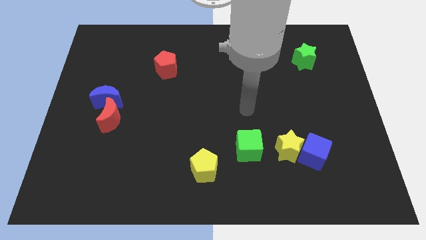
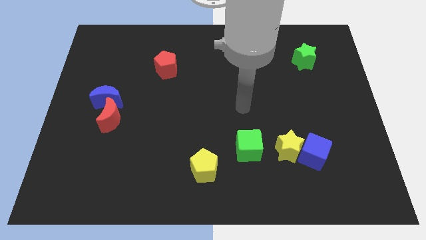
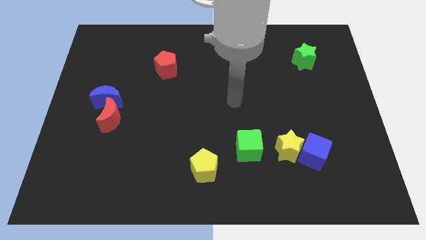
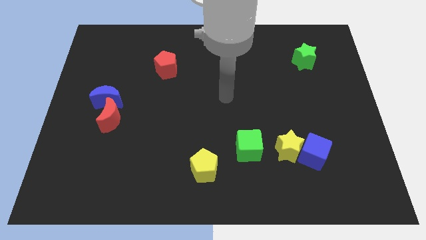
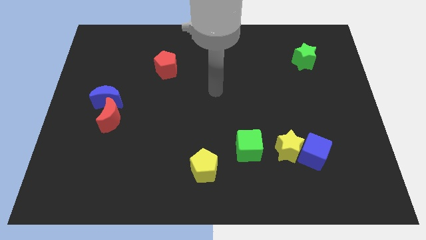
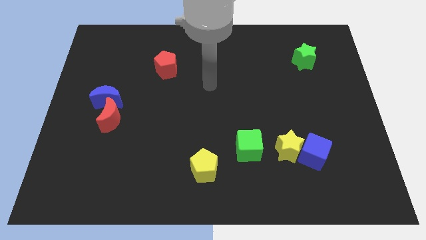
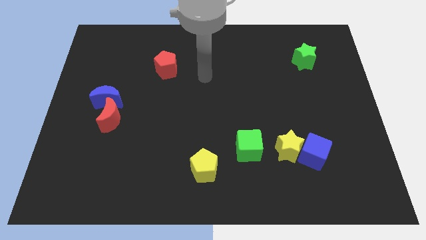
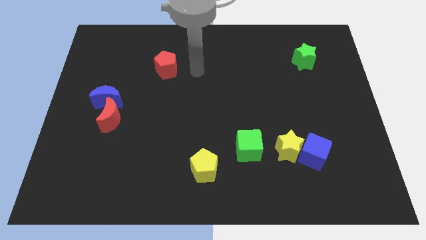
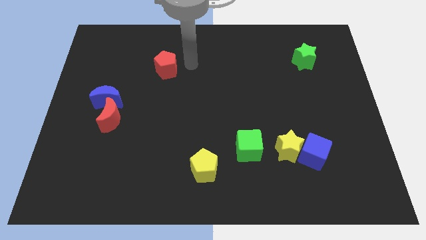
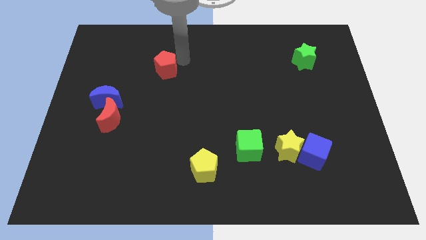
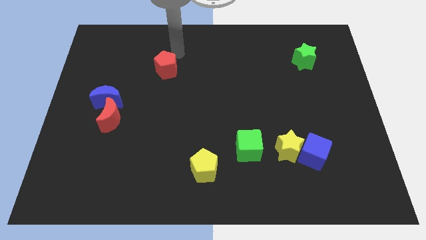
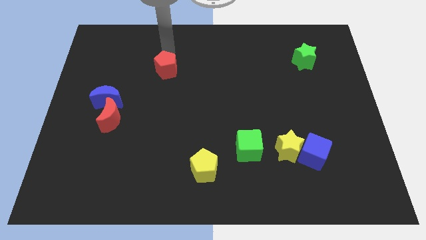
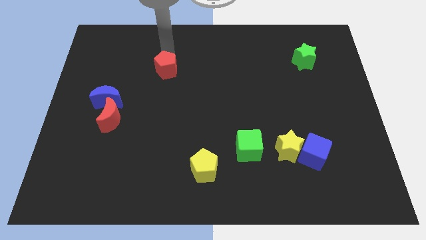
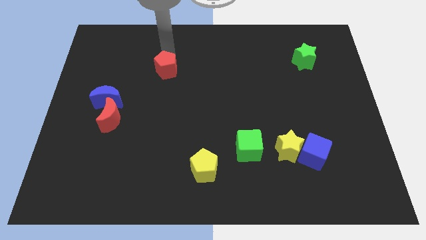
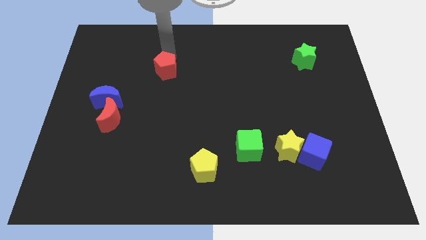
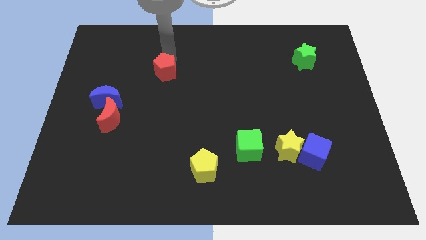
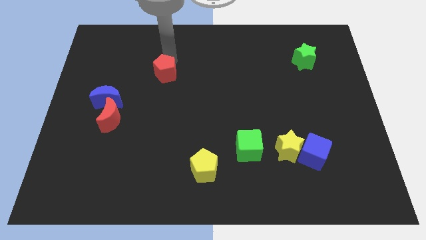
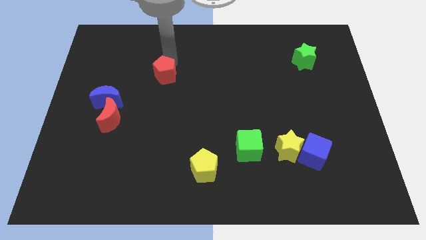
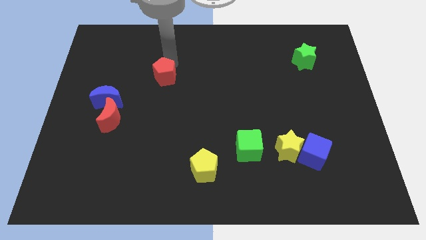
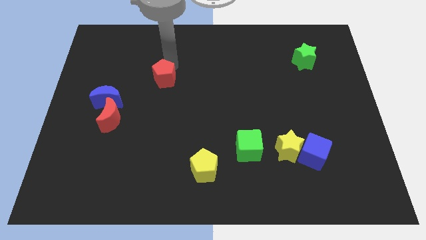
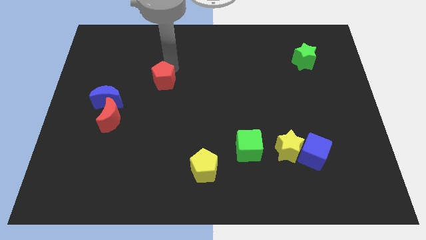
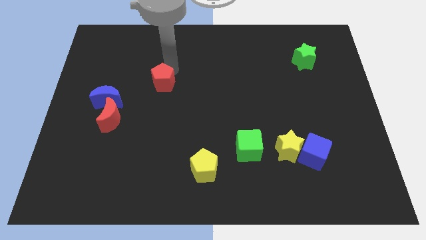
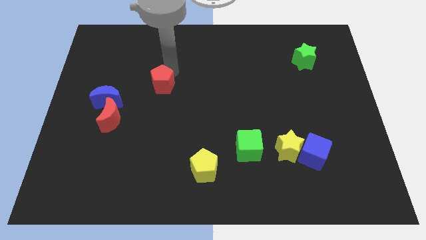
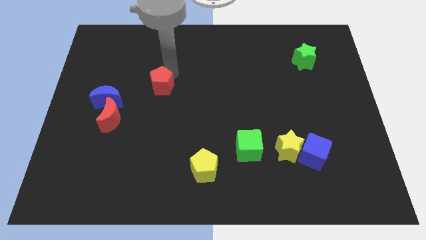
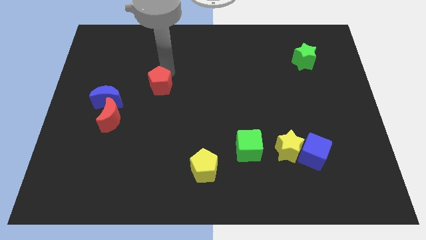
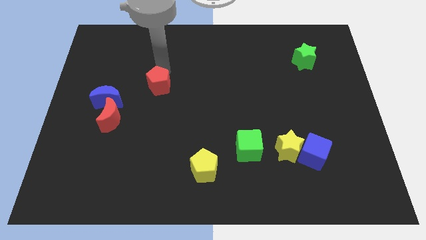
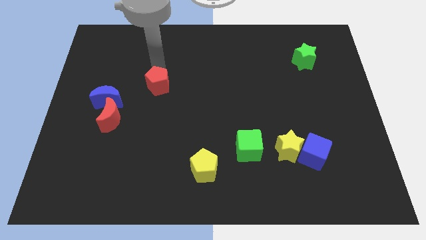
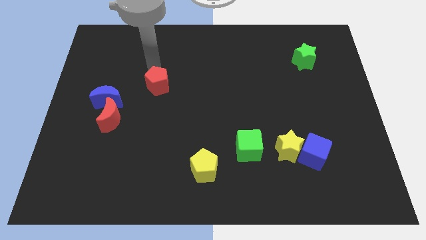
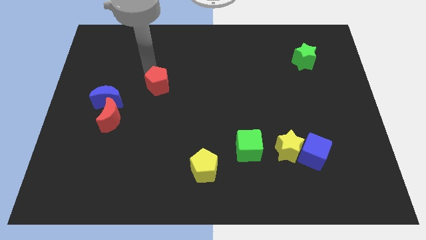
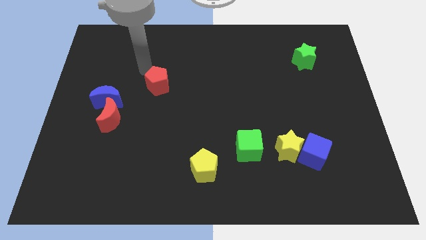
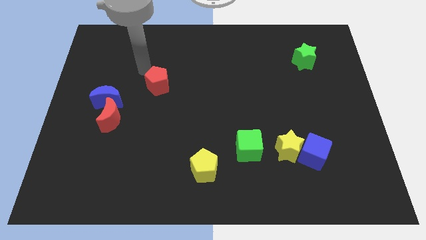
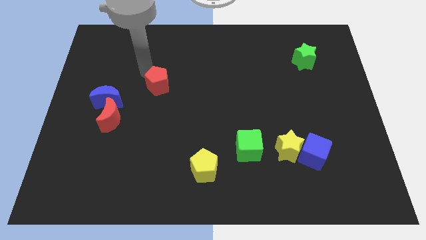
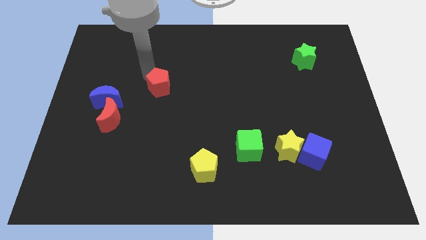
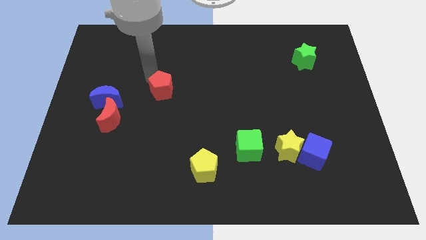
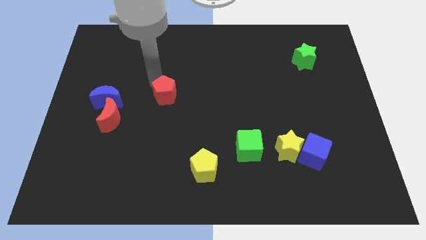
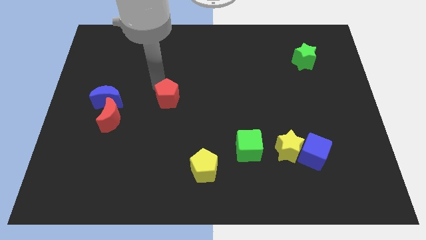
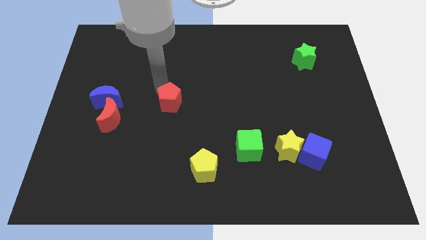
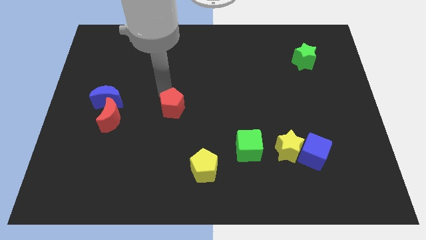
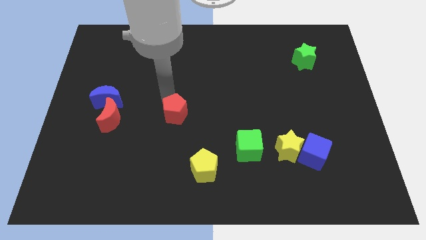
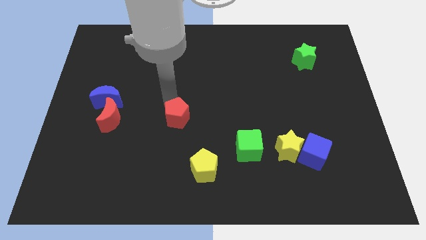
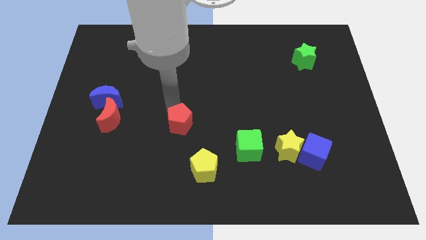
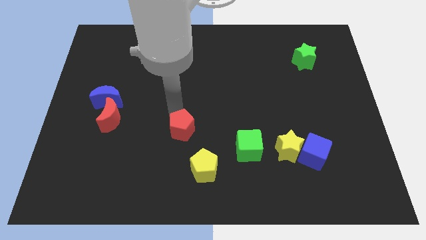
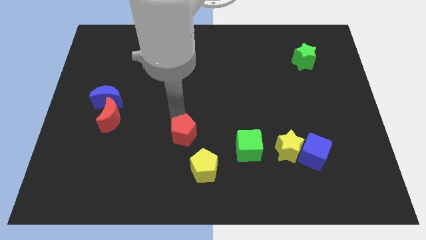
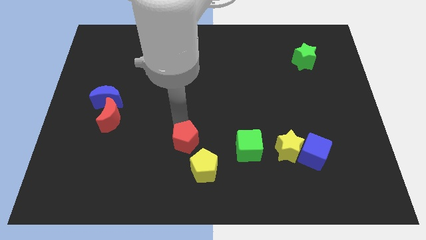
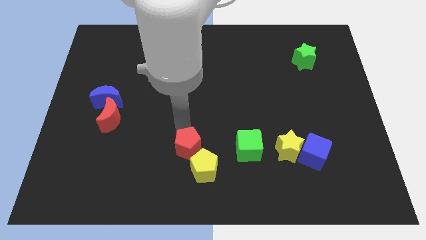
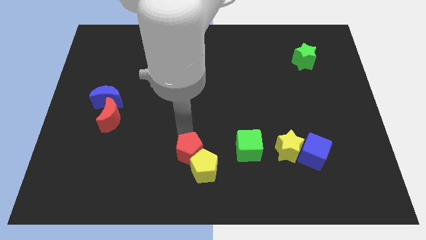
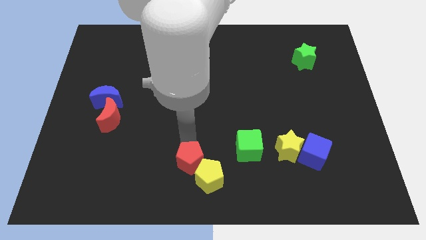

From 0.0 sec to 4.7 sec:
slide the red pentagon to the bottom side

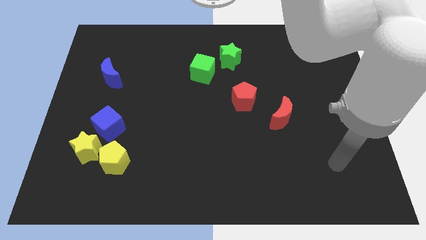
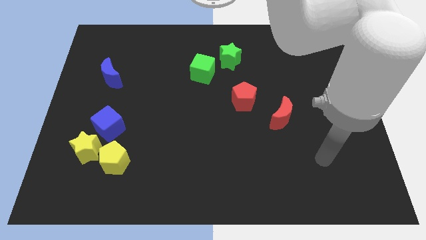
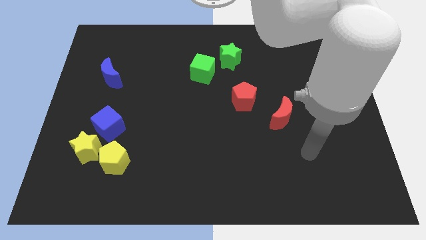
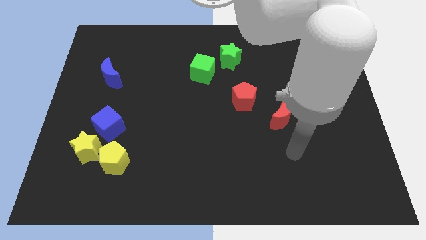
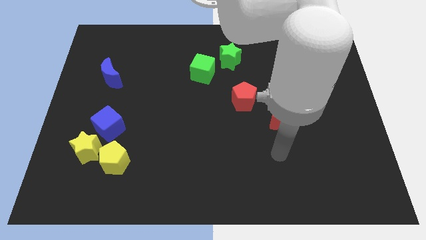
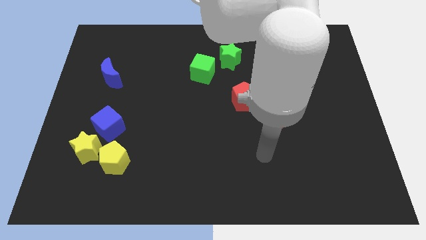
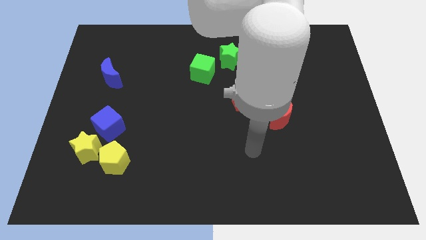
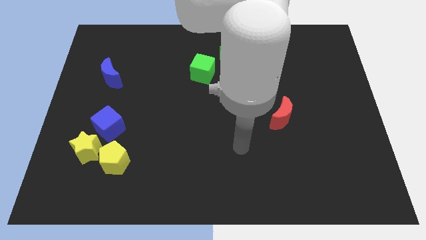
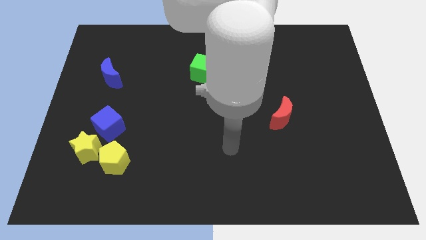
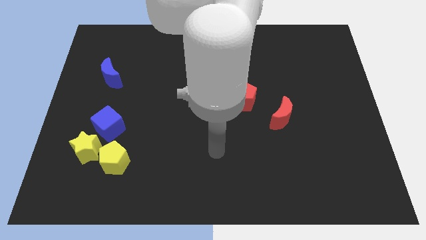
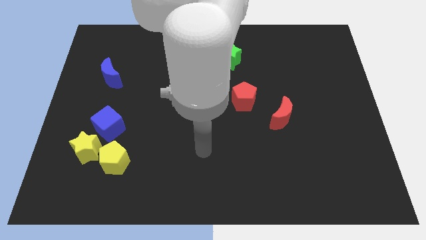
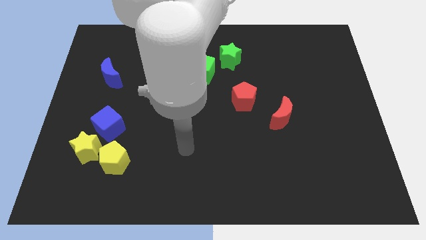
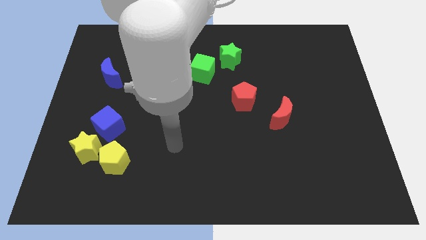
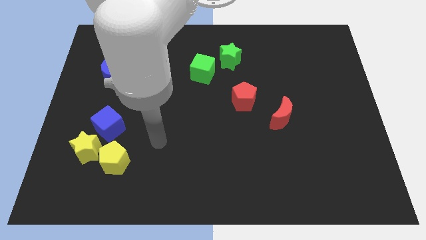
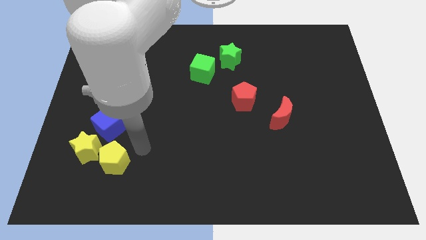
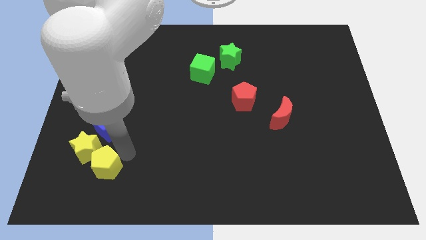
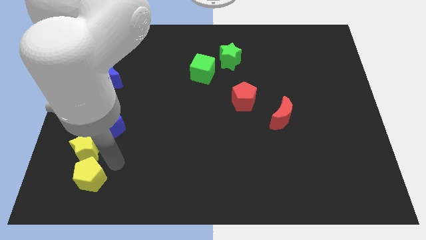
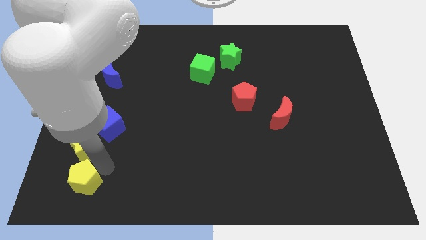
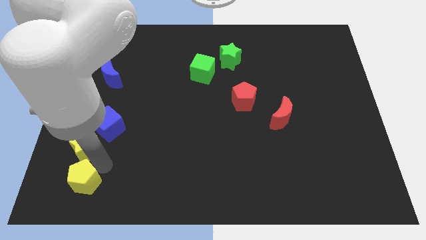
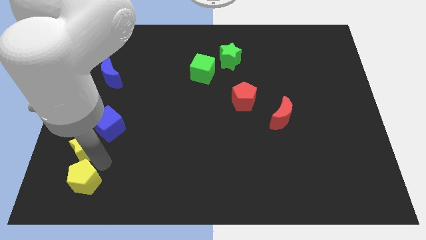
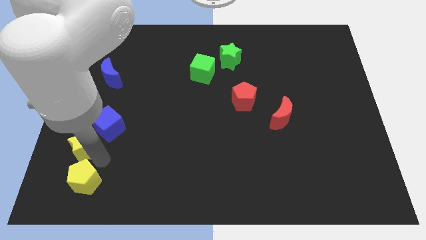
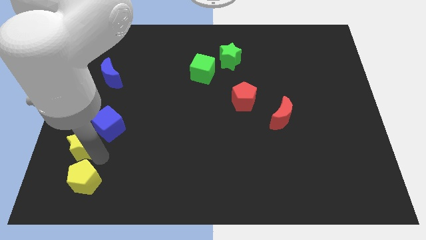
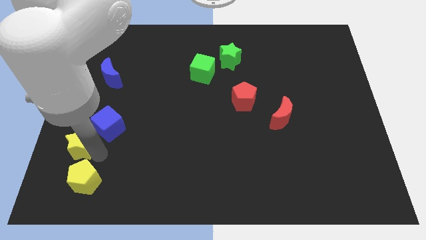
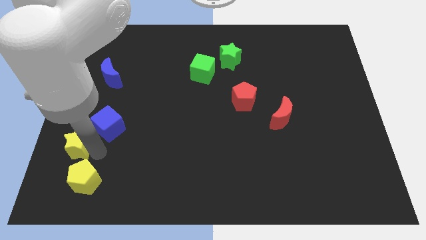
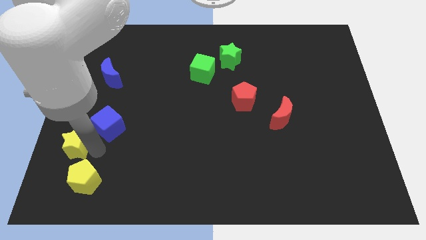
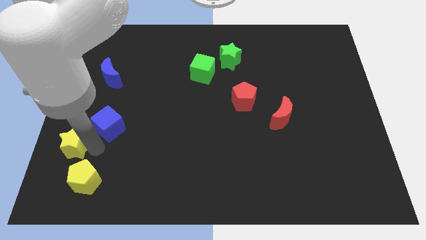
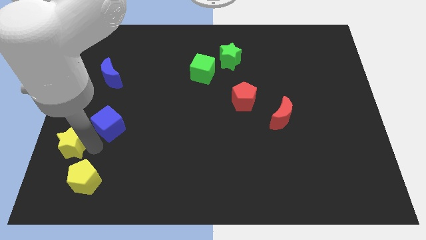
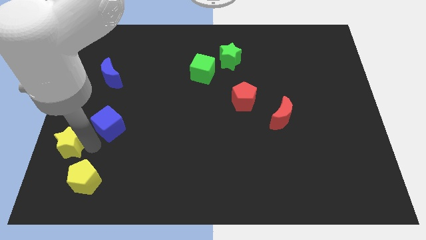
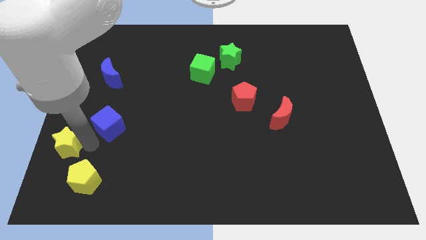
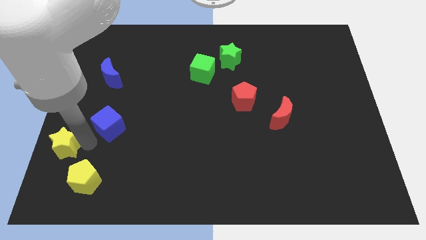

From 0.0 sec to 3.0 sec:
move the yellow star to the center left
